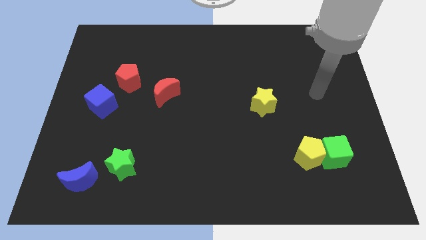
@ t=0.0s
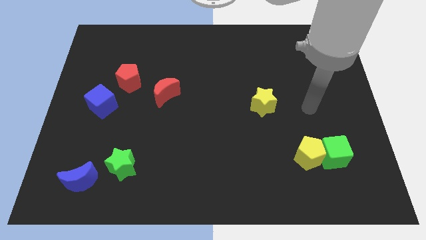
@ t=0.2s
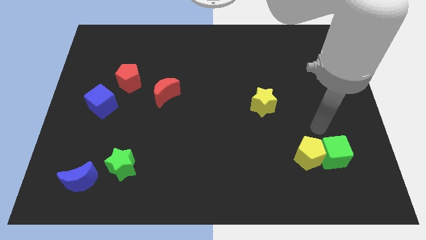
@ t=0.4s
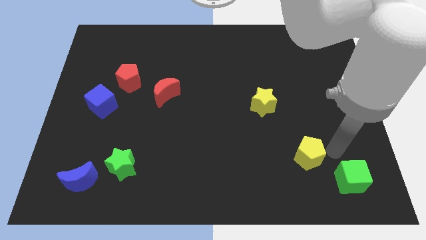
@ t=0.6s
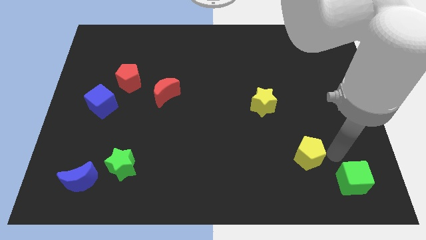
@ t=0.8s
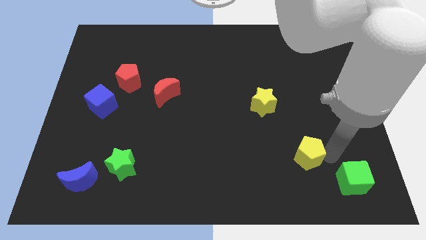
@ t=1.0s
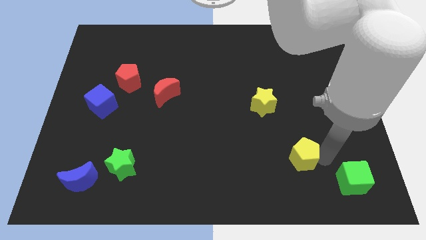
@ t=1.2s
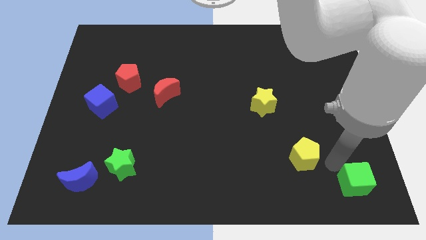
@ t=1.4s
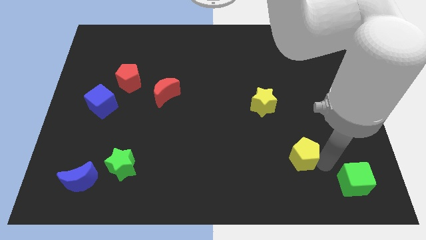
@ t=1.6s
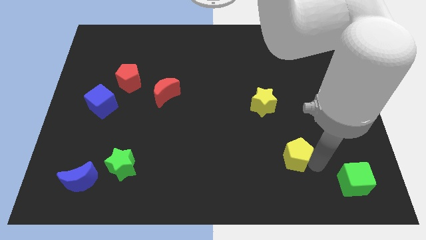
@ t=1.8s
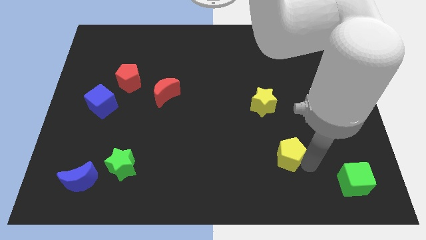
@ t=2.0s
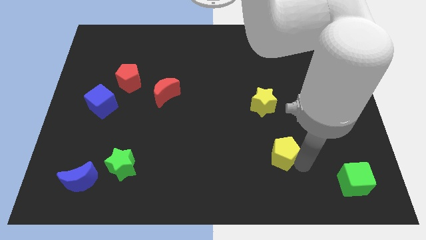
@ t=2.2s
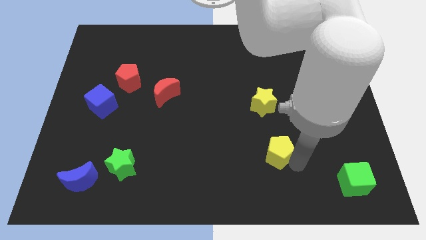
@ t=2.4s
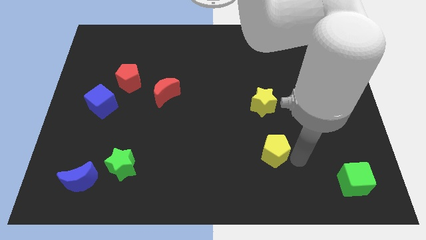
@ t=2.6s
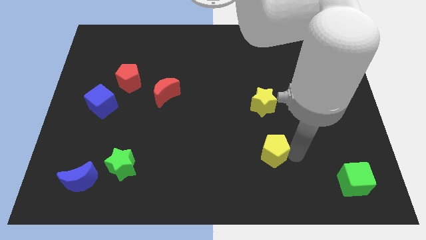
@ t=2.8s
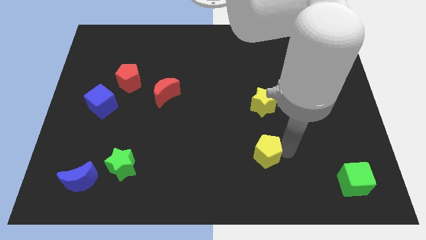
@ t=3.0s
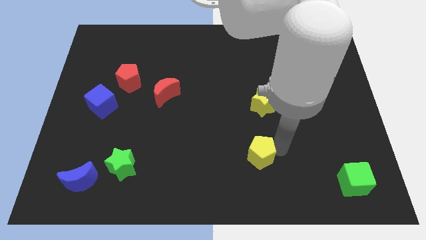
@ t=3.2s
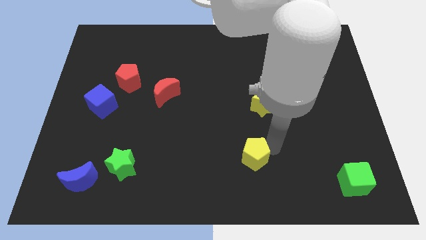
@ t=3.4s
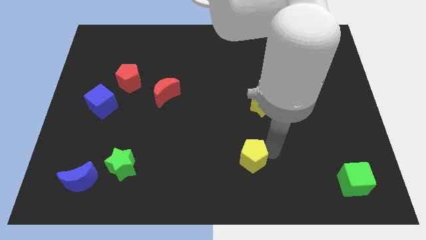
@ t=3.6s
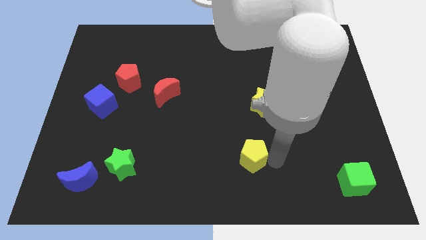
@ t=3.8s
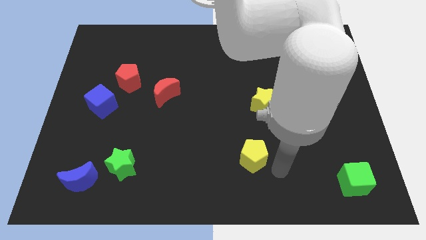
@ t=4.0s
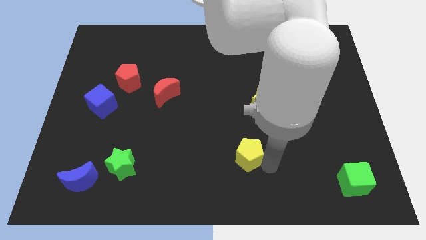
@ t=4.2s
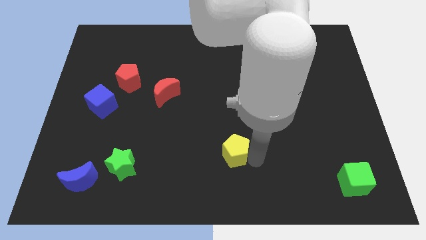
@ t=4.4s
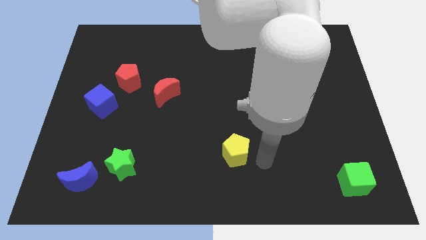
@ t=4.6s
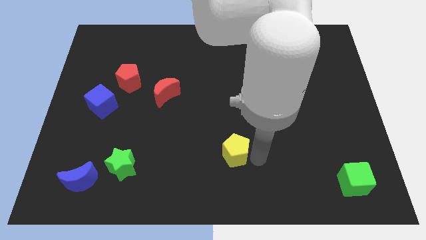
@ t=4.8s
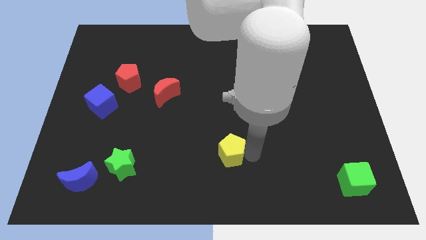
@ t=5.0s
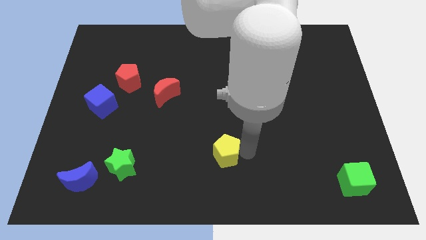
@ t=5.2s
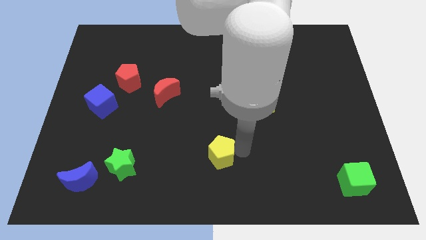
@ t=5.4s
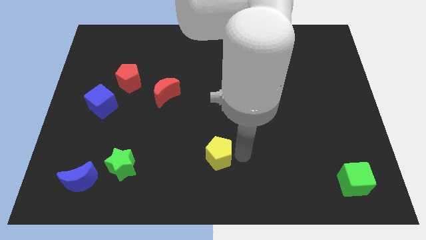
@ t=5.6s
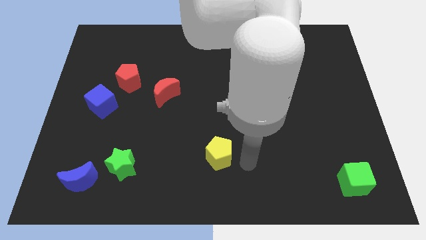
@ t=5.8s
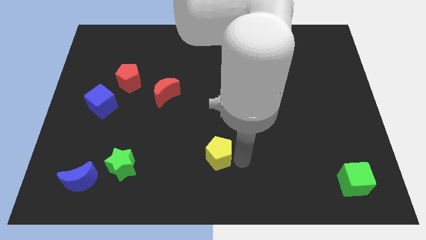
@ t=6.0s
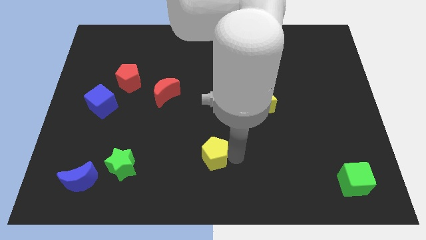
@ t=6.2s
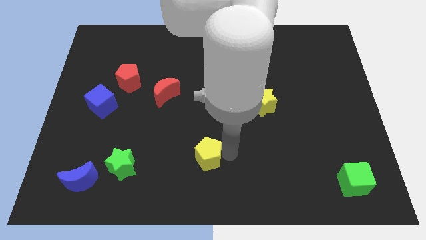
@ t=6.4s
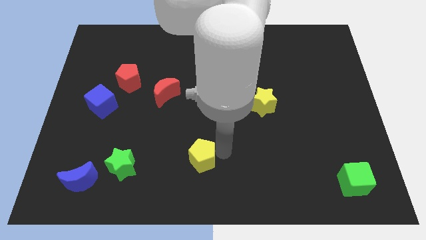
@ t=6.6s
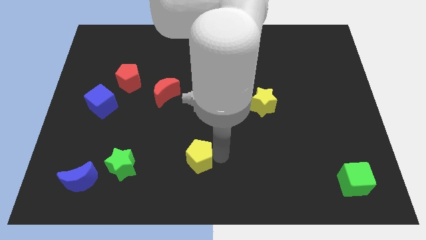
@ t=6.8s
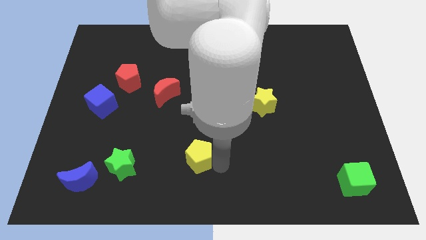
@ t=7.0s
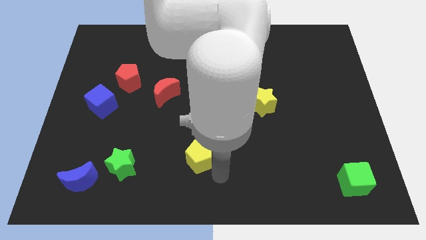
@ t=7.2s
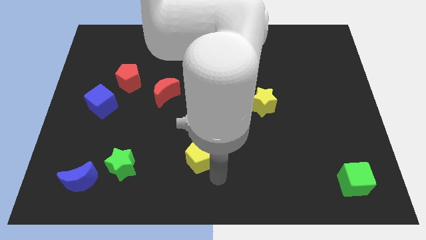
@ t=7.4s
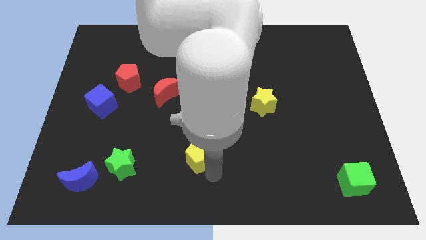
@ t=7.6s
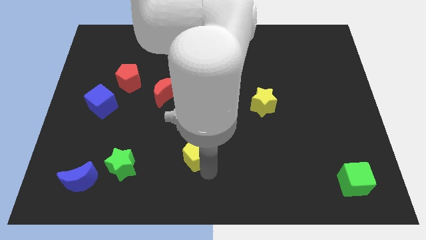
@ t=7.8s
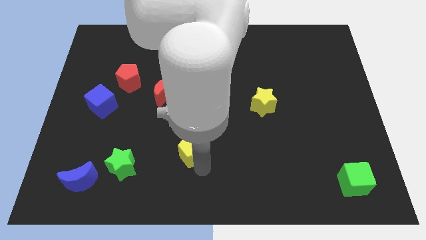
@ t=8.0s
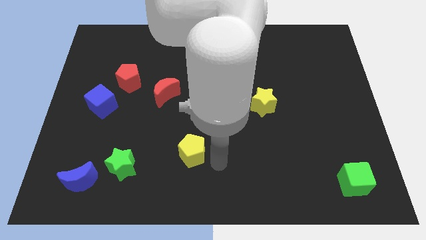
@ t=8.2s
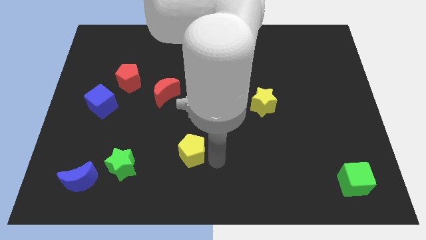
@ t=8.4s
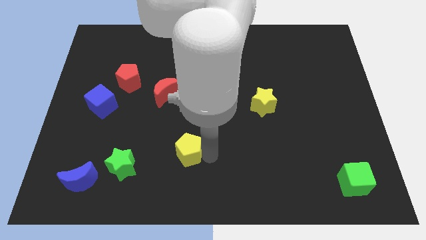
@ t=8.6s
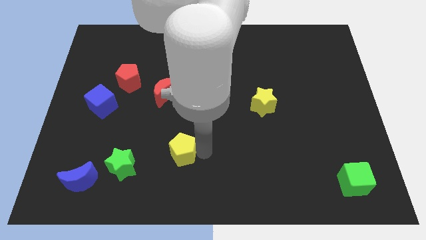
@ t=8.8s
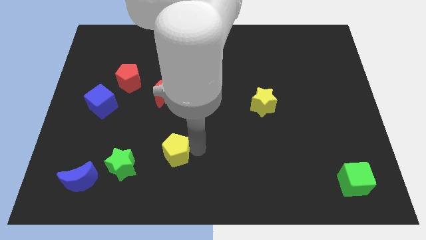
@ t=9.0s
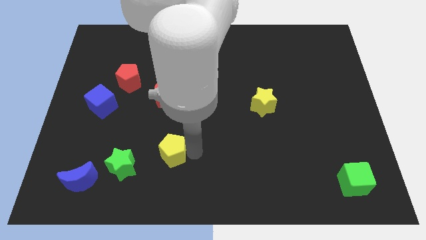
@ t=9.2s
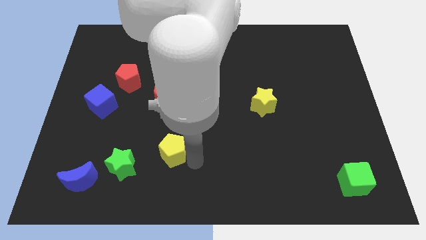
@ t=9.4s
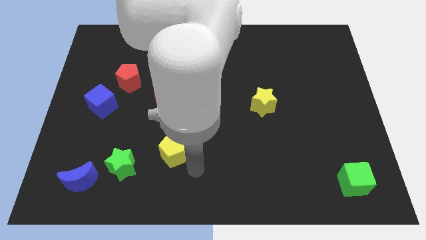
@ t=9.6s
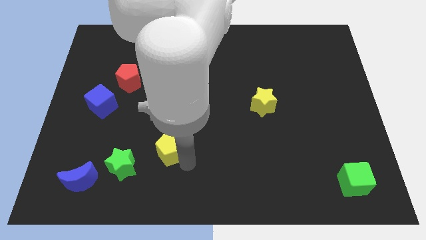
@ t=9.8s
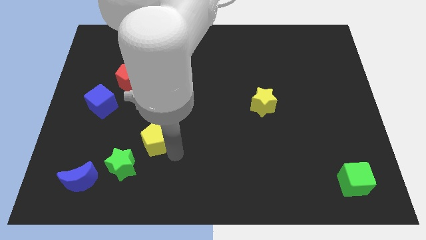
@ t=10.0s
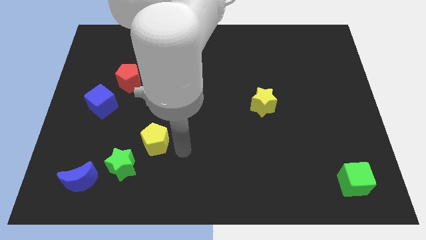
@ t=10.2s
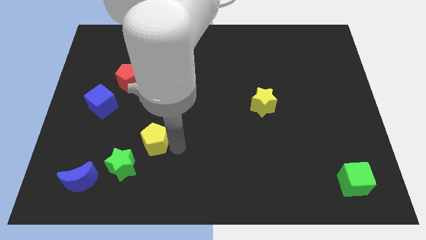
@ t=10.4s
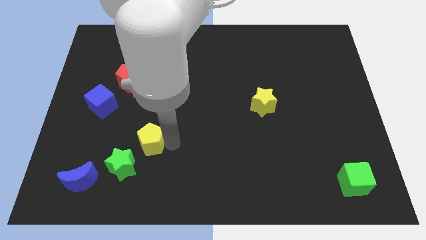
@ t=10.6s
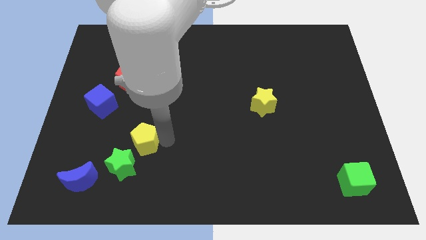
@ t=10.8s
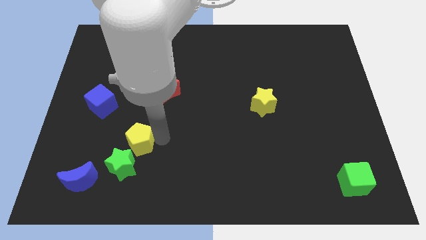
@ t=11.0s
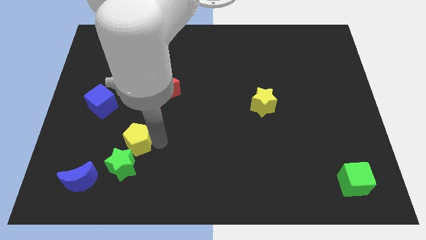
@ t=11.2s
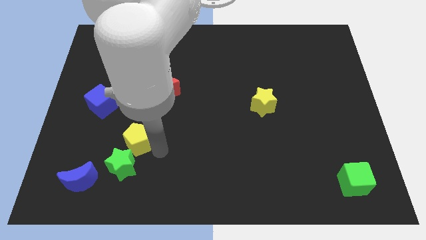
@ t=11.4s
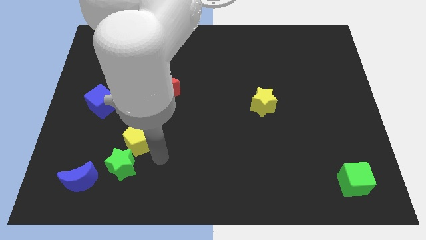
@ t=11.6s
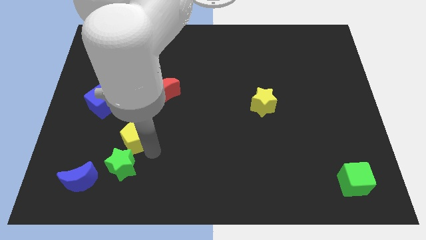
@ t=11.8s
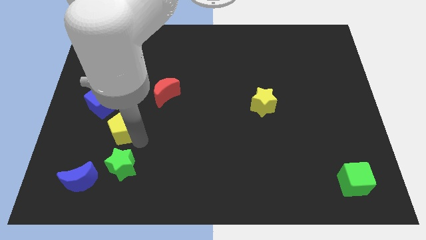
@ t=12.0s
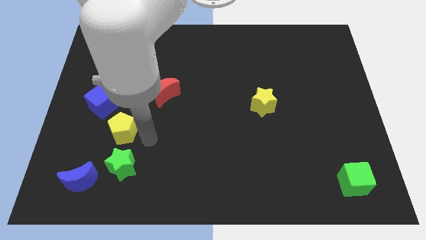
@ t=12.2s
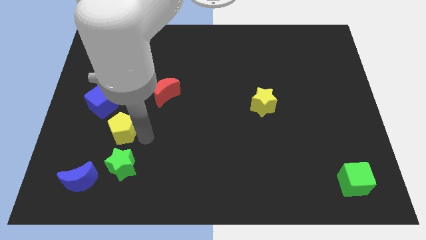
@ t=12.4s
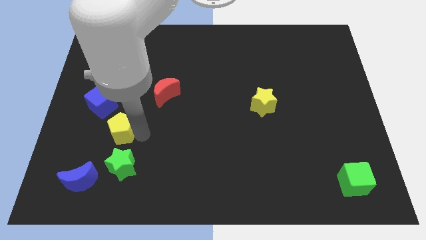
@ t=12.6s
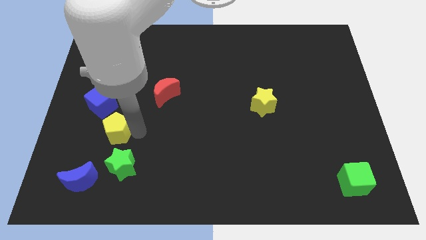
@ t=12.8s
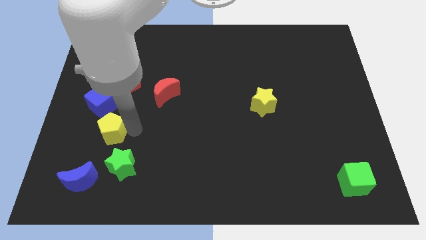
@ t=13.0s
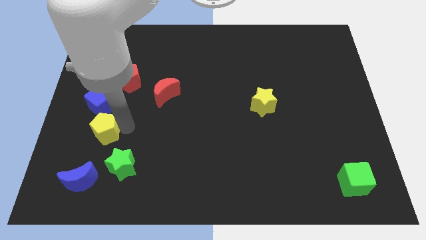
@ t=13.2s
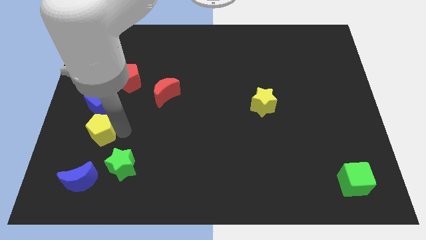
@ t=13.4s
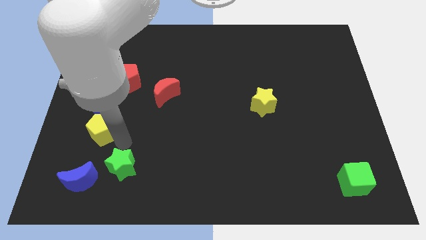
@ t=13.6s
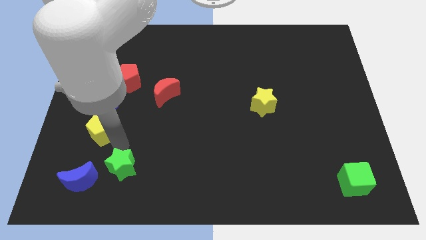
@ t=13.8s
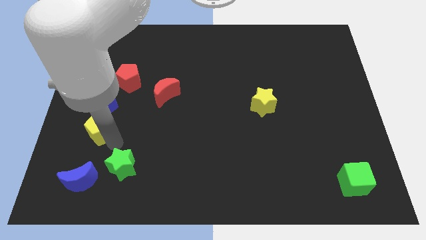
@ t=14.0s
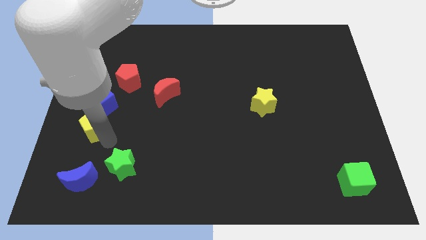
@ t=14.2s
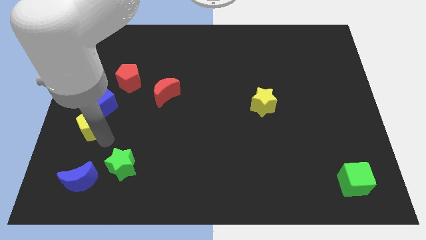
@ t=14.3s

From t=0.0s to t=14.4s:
move the yellow pentagon to the center left
